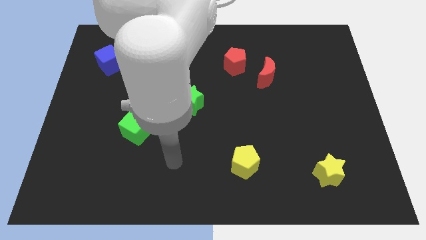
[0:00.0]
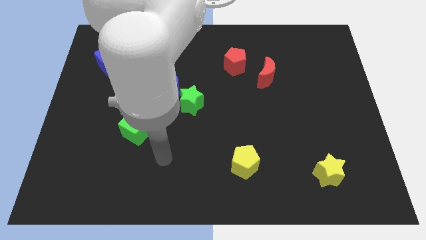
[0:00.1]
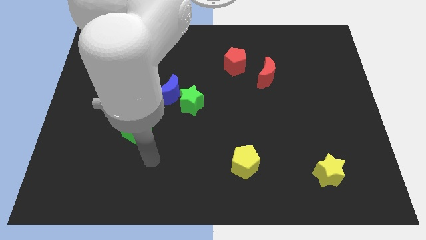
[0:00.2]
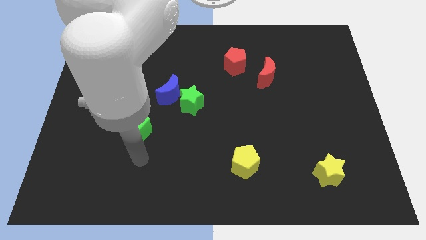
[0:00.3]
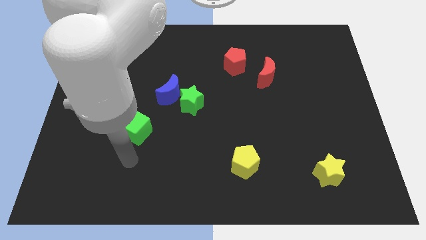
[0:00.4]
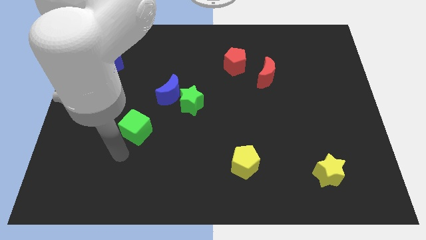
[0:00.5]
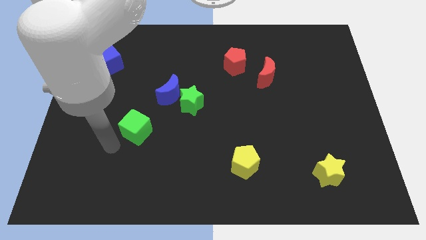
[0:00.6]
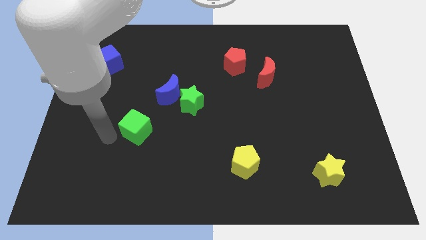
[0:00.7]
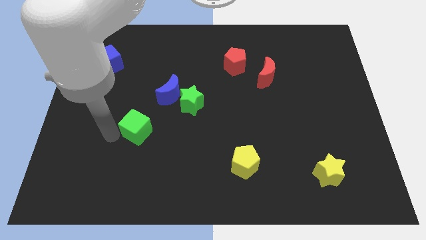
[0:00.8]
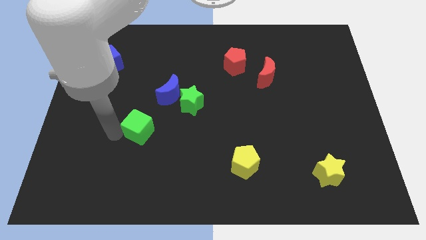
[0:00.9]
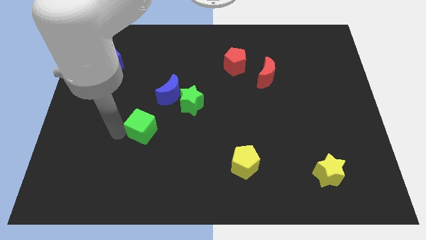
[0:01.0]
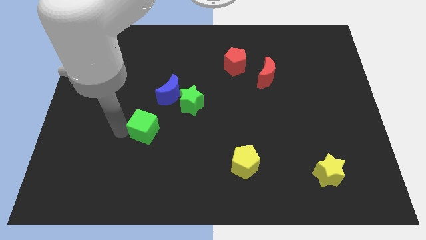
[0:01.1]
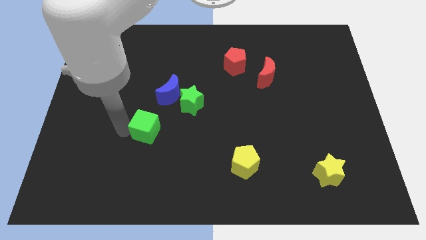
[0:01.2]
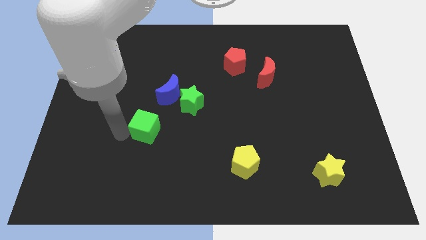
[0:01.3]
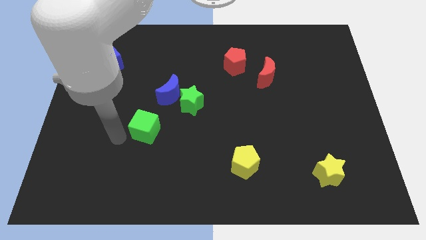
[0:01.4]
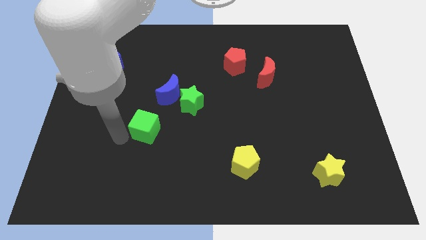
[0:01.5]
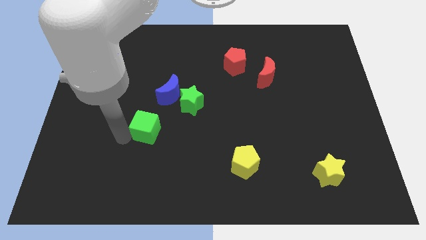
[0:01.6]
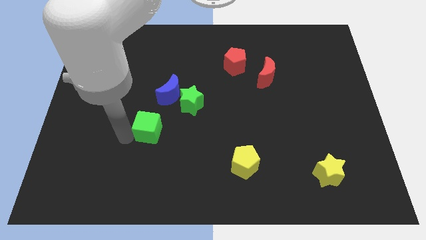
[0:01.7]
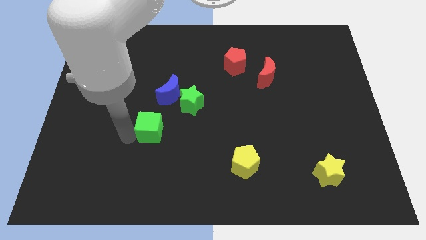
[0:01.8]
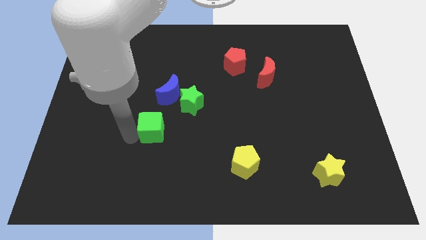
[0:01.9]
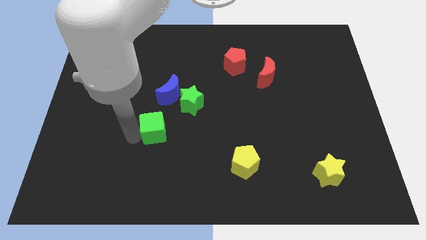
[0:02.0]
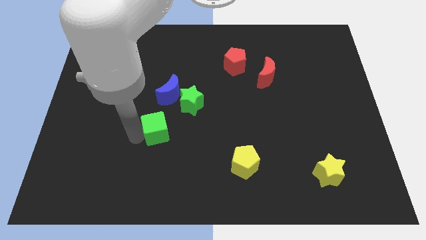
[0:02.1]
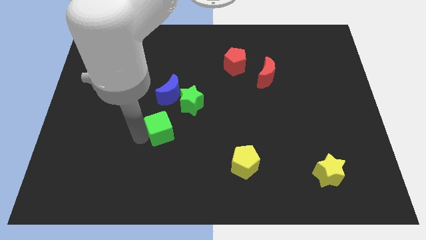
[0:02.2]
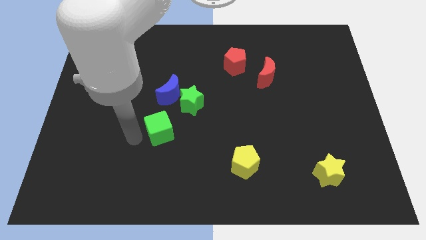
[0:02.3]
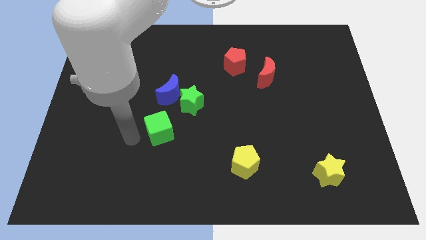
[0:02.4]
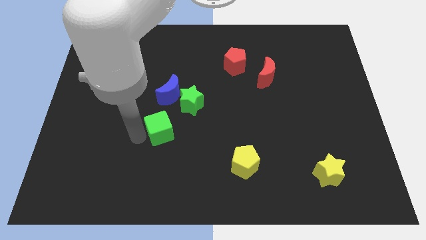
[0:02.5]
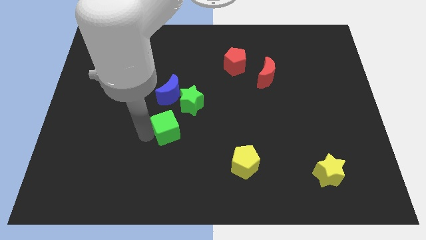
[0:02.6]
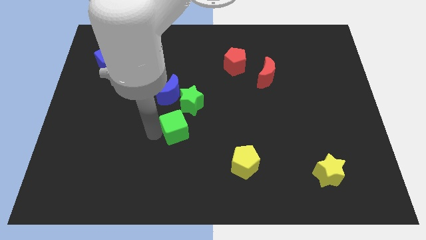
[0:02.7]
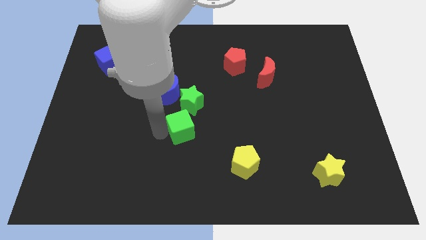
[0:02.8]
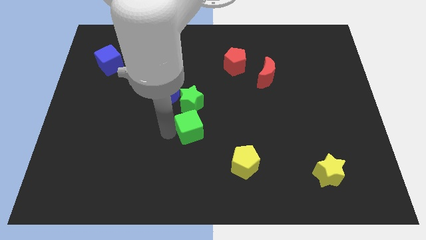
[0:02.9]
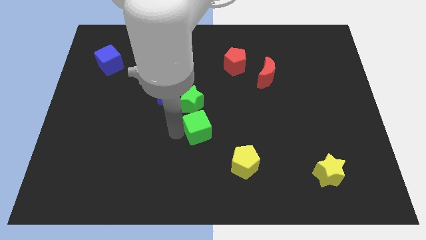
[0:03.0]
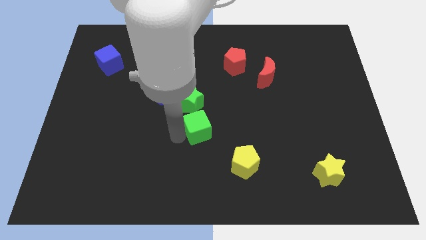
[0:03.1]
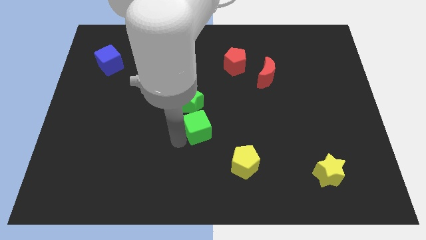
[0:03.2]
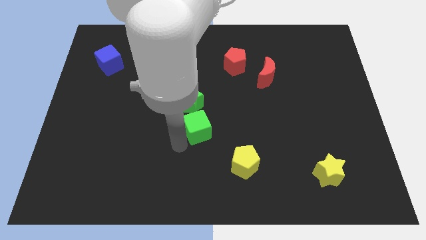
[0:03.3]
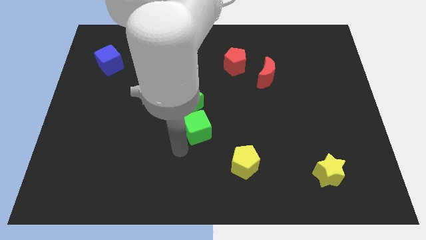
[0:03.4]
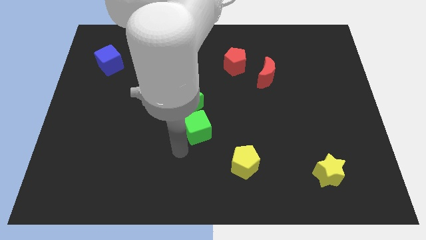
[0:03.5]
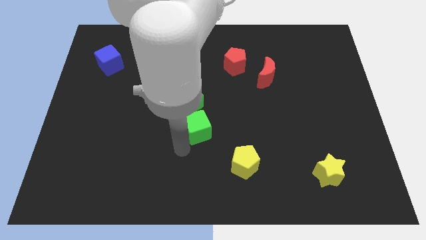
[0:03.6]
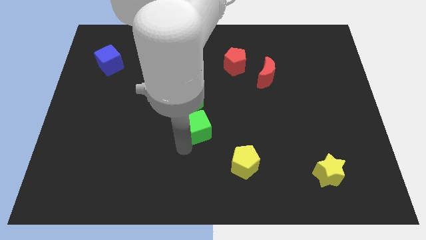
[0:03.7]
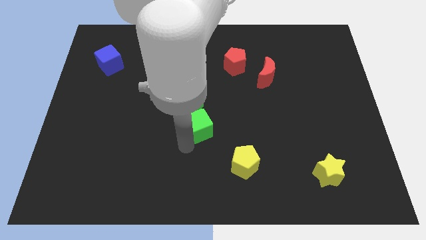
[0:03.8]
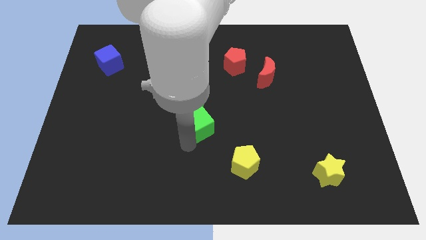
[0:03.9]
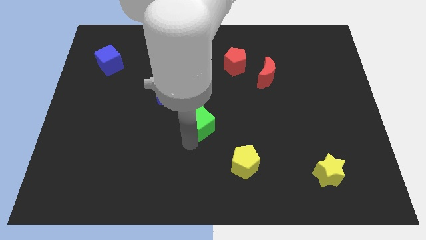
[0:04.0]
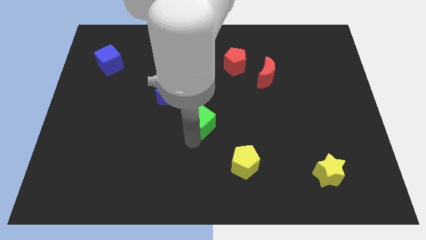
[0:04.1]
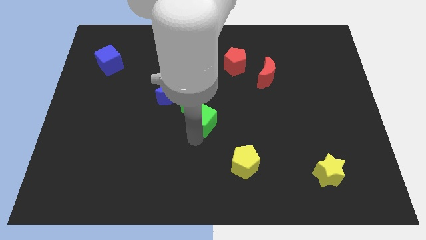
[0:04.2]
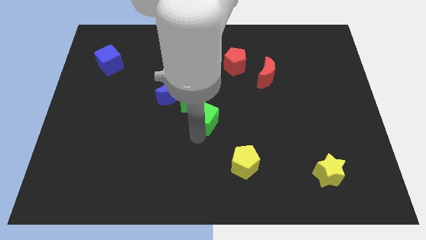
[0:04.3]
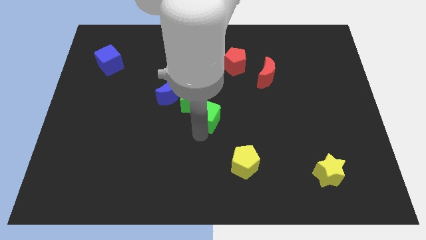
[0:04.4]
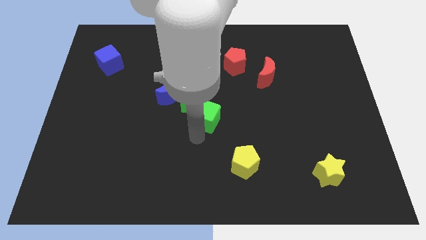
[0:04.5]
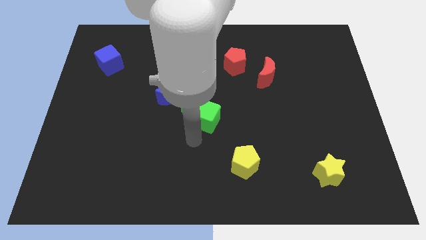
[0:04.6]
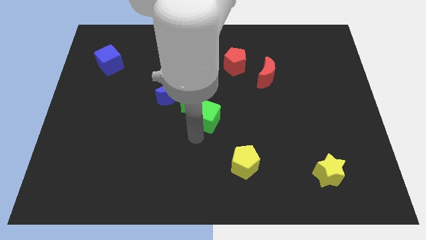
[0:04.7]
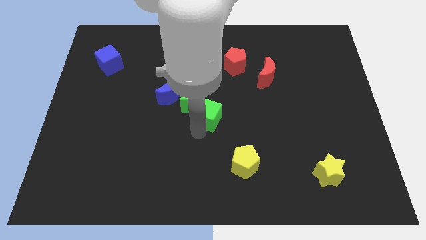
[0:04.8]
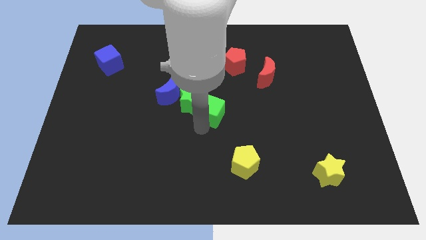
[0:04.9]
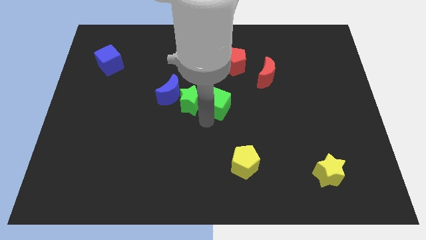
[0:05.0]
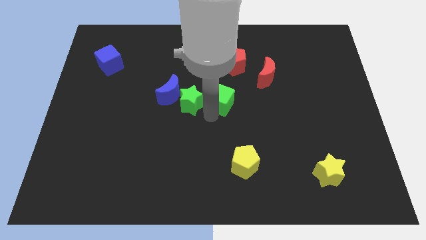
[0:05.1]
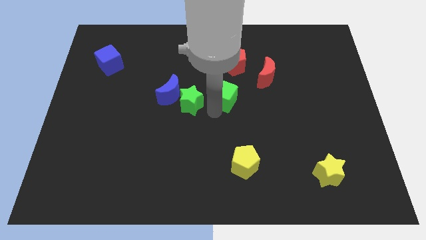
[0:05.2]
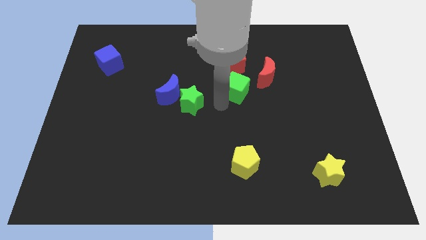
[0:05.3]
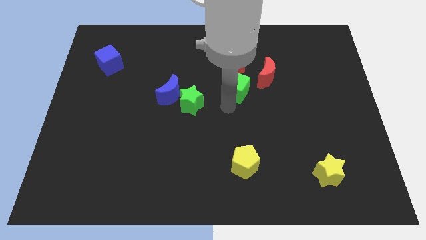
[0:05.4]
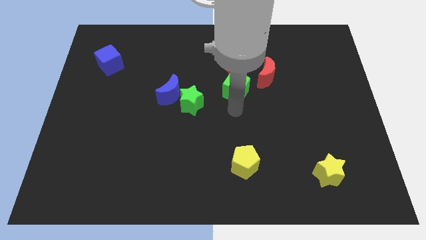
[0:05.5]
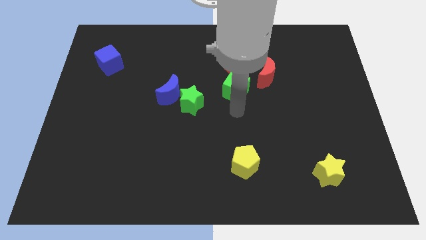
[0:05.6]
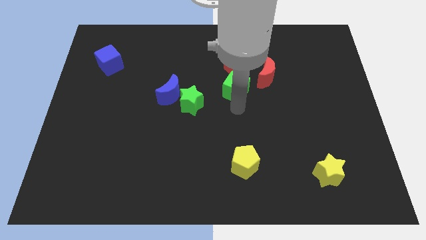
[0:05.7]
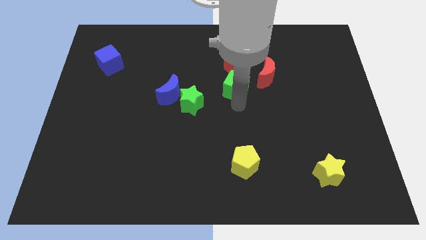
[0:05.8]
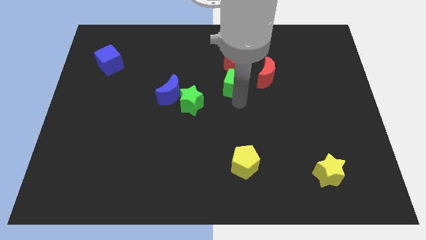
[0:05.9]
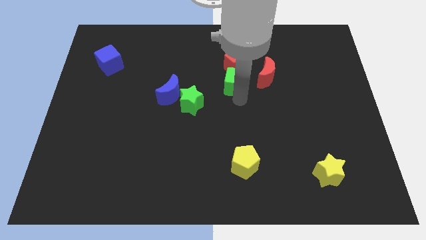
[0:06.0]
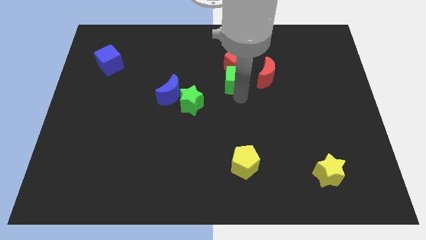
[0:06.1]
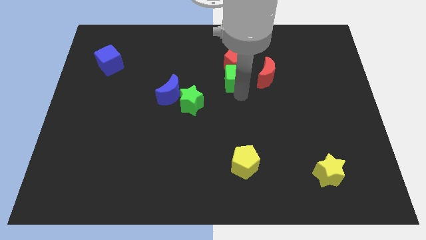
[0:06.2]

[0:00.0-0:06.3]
put the green cube towards the red pentagon
